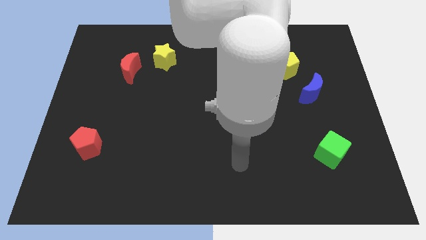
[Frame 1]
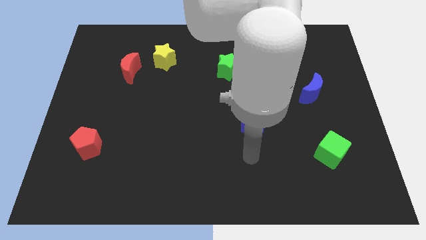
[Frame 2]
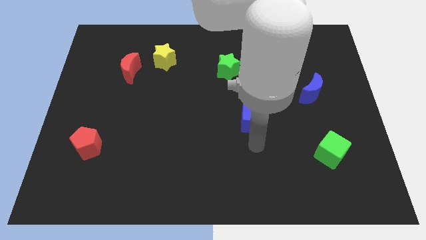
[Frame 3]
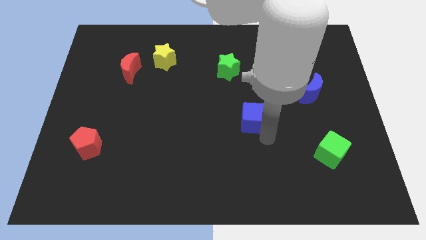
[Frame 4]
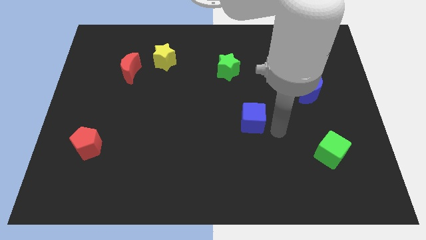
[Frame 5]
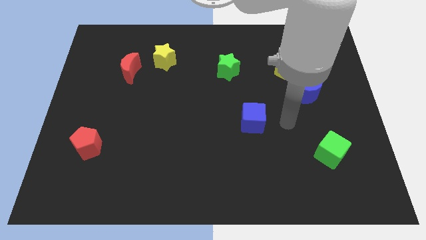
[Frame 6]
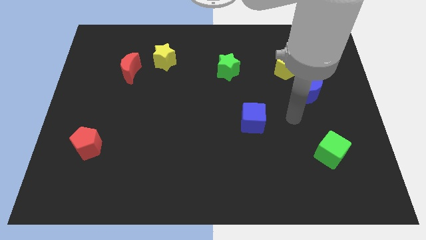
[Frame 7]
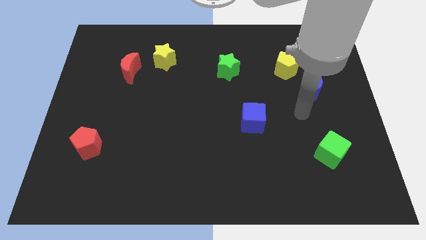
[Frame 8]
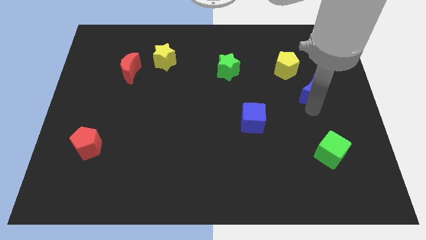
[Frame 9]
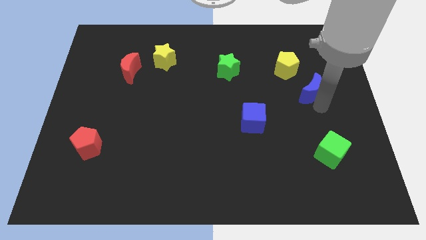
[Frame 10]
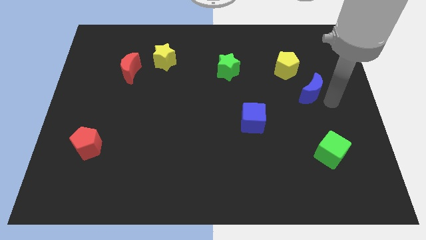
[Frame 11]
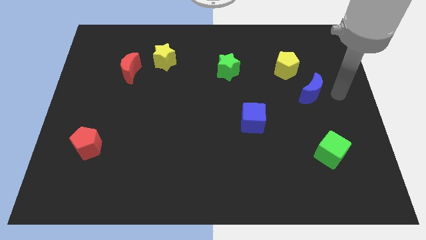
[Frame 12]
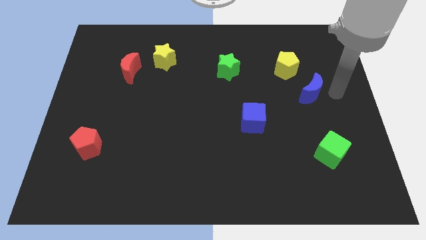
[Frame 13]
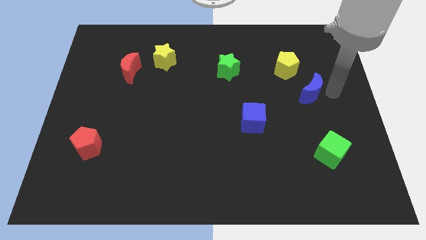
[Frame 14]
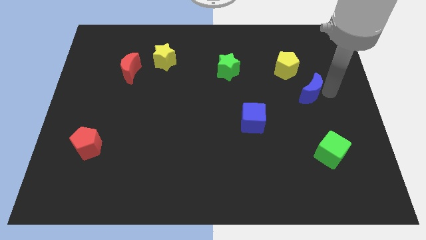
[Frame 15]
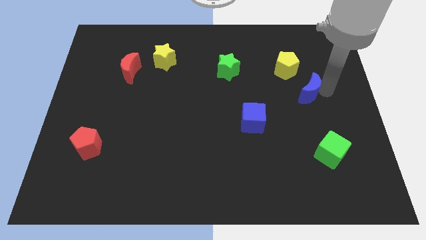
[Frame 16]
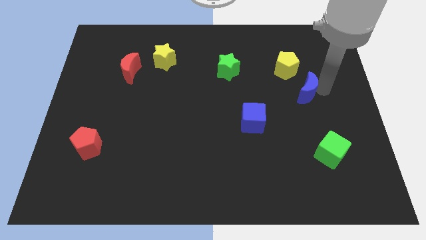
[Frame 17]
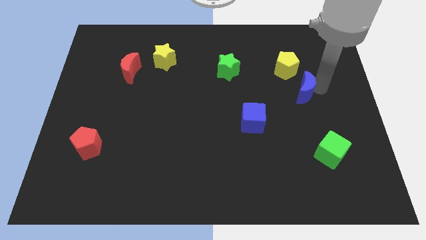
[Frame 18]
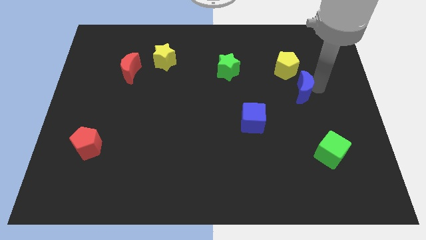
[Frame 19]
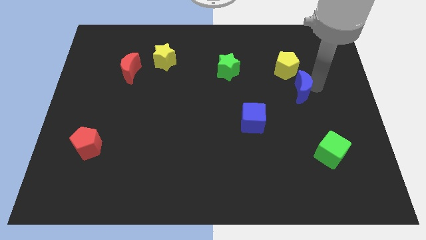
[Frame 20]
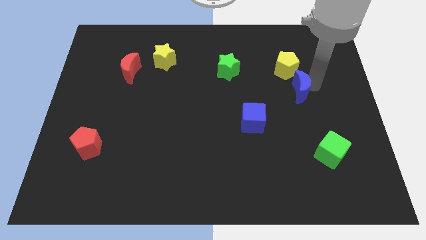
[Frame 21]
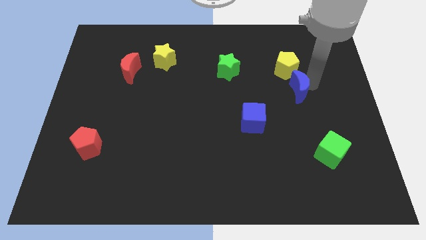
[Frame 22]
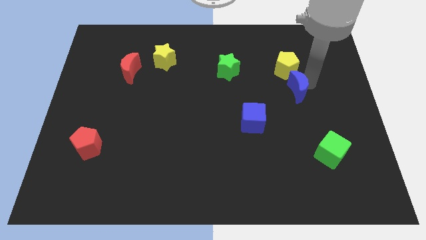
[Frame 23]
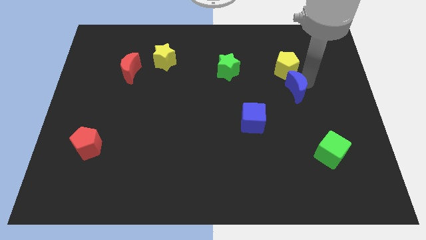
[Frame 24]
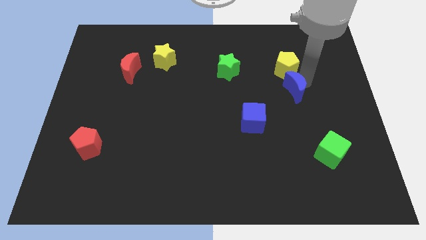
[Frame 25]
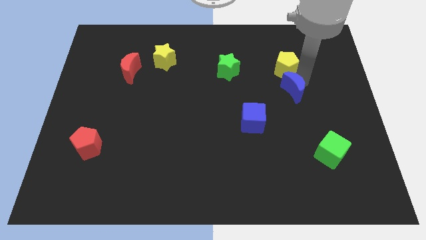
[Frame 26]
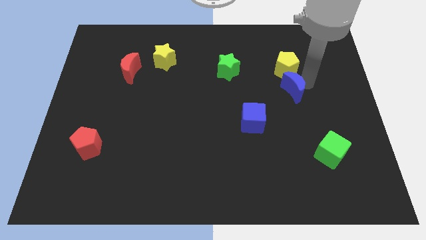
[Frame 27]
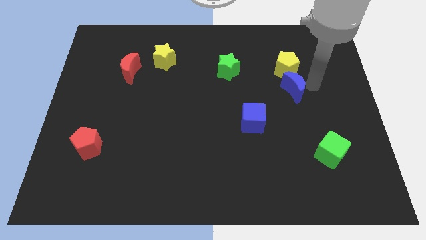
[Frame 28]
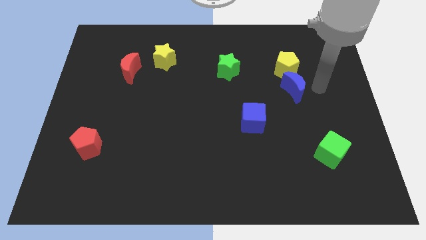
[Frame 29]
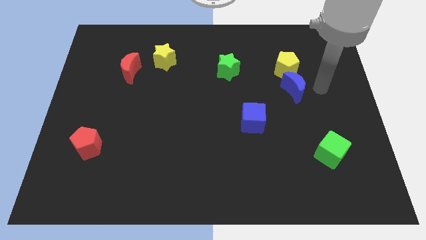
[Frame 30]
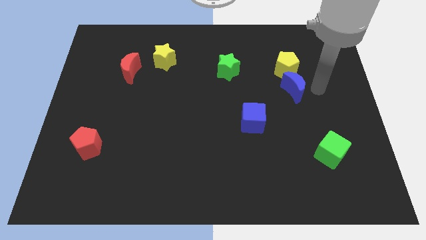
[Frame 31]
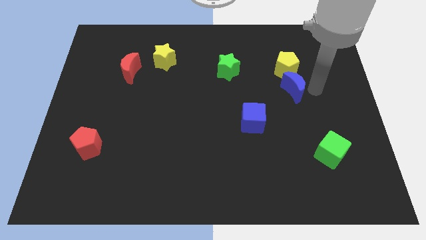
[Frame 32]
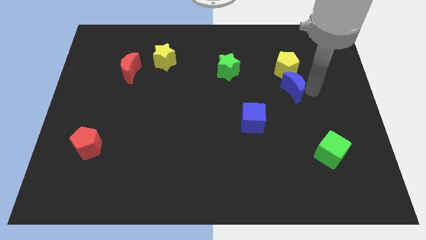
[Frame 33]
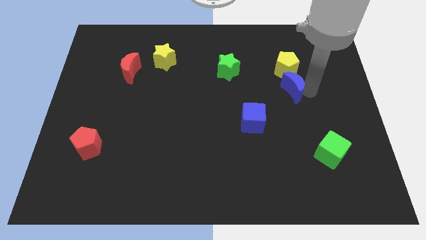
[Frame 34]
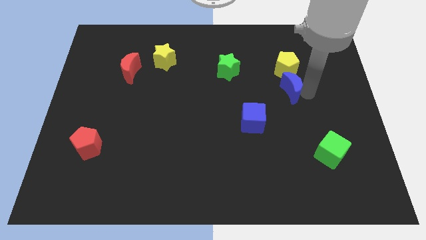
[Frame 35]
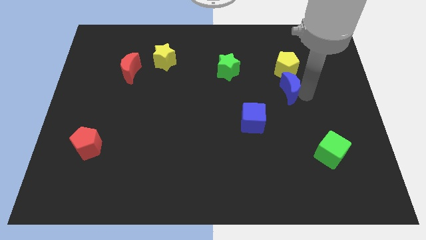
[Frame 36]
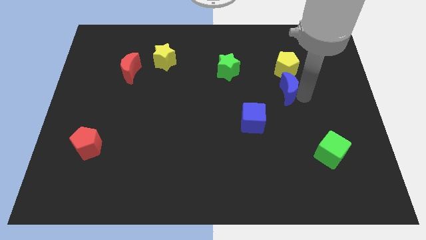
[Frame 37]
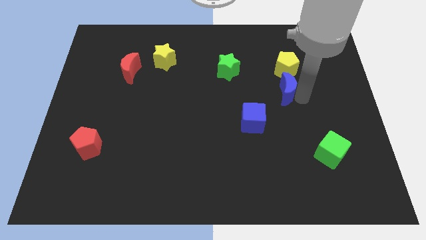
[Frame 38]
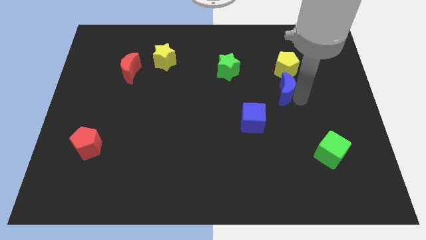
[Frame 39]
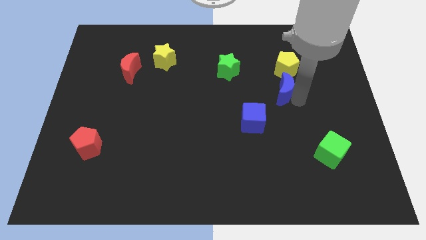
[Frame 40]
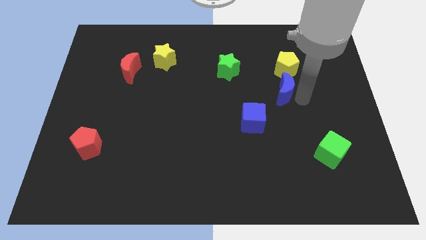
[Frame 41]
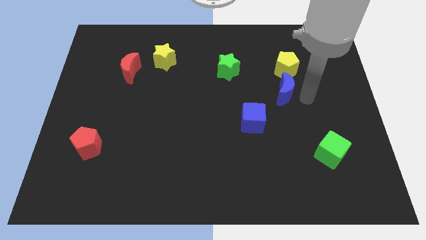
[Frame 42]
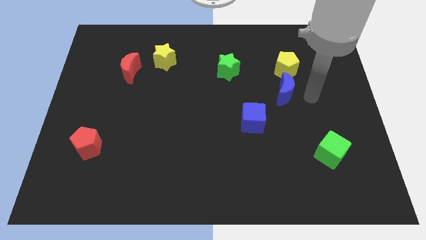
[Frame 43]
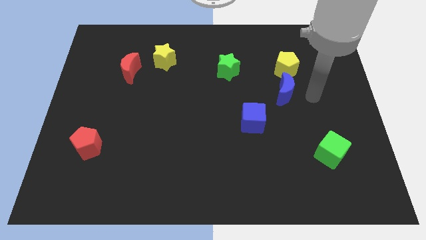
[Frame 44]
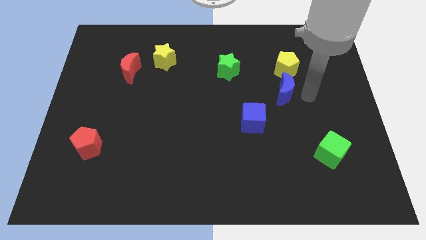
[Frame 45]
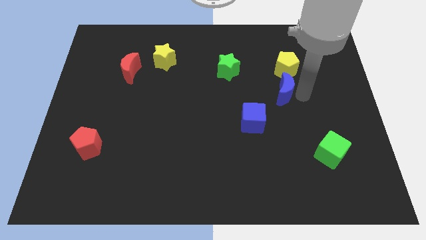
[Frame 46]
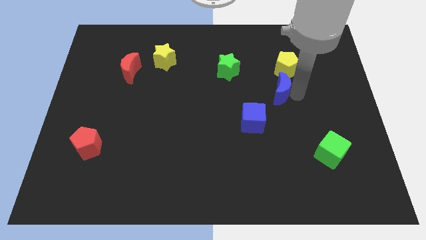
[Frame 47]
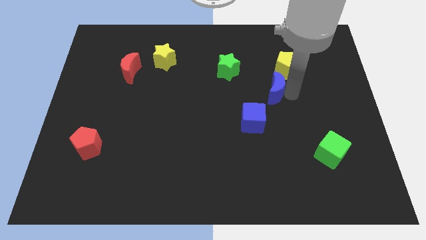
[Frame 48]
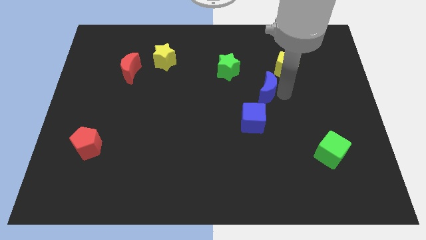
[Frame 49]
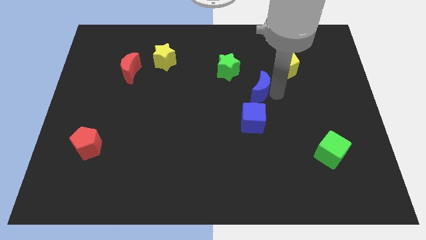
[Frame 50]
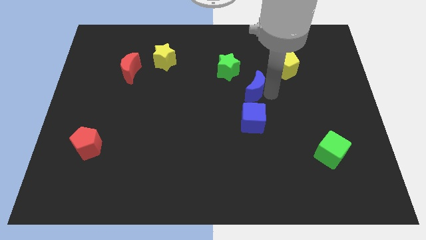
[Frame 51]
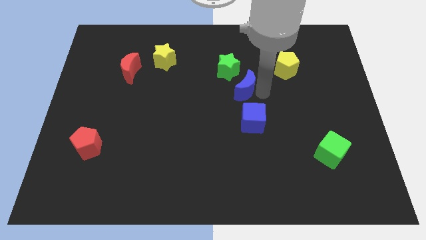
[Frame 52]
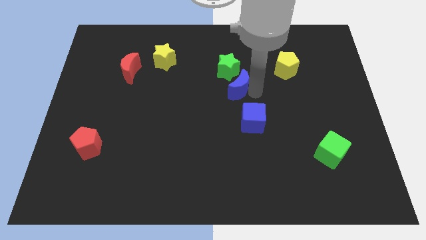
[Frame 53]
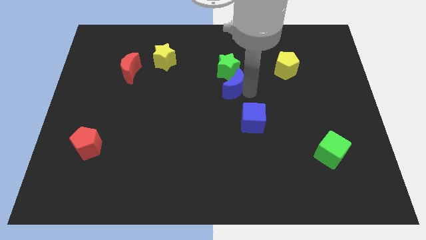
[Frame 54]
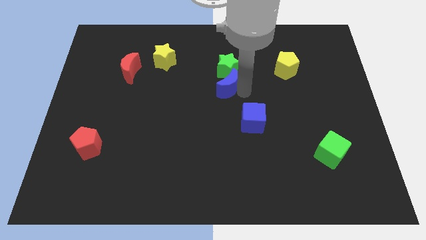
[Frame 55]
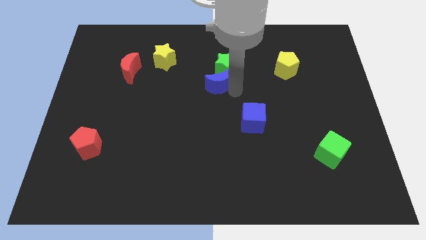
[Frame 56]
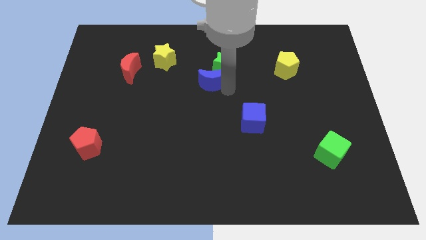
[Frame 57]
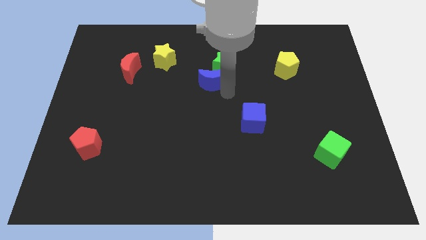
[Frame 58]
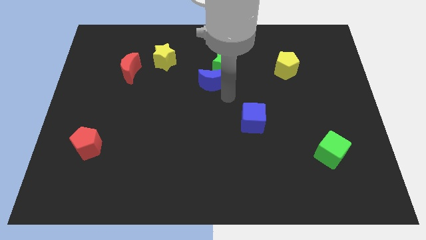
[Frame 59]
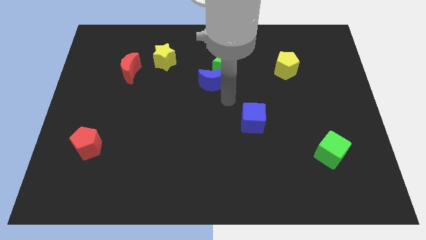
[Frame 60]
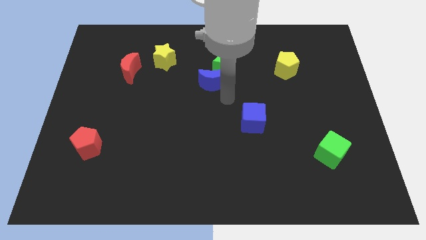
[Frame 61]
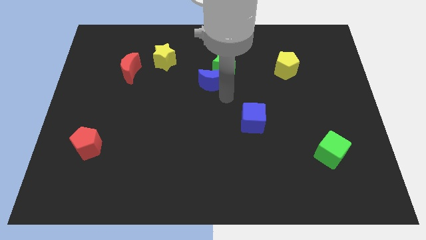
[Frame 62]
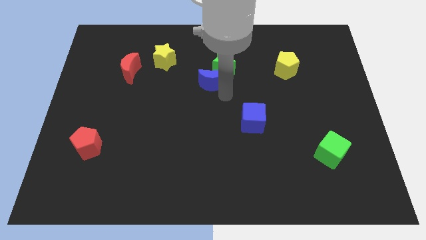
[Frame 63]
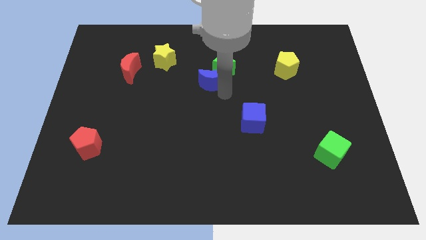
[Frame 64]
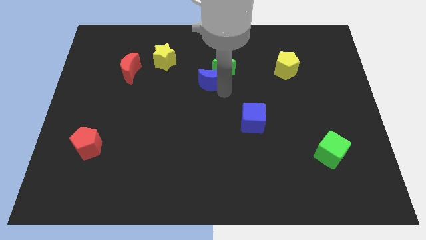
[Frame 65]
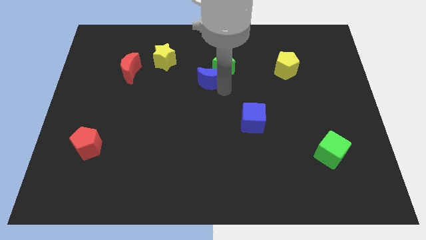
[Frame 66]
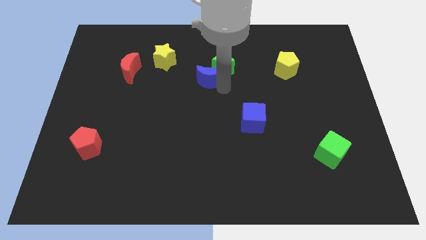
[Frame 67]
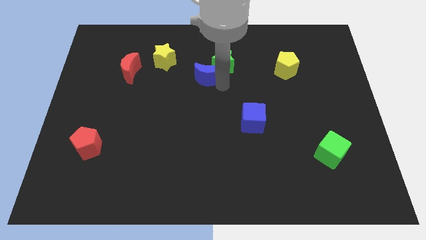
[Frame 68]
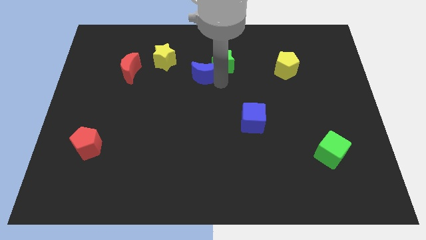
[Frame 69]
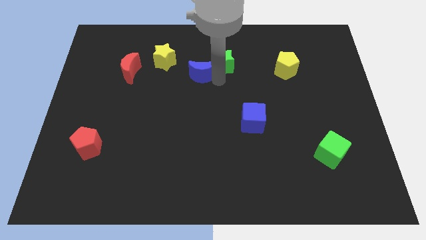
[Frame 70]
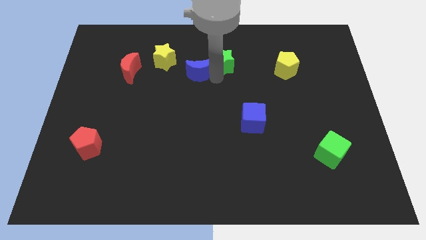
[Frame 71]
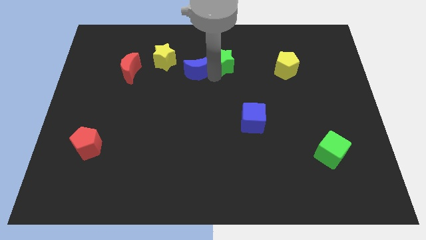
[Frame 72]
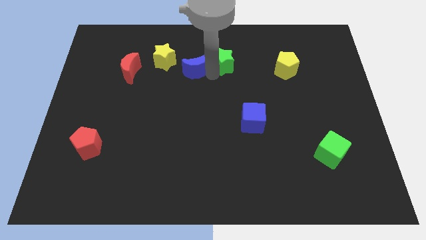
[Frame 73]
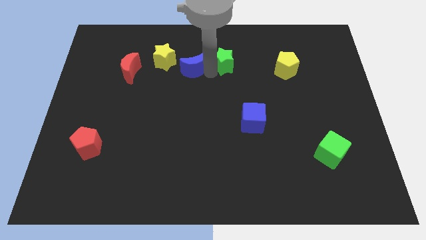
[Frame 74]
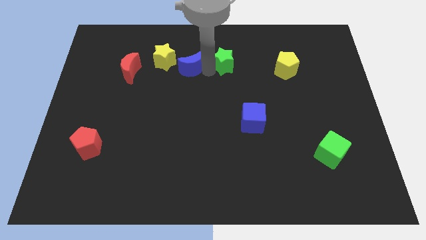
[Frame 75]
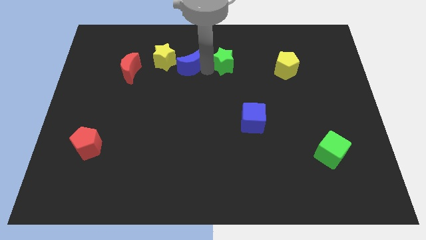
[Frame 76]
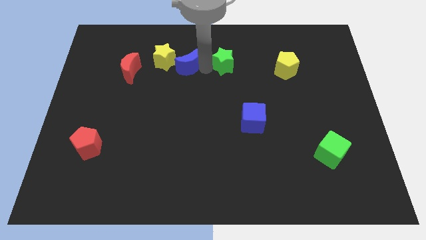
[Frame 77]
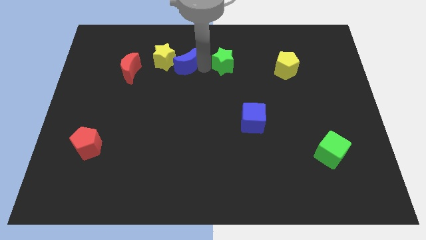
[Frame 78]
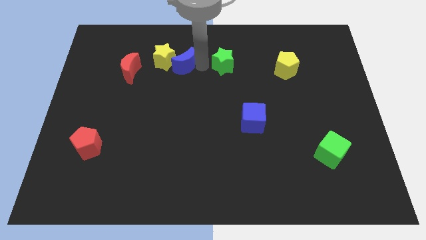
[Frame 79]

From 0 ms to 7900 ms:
slide the blue moon towards the yellow star
